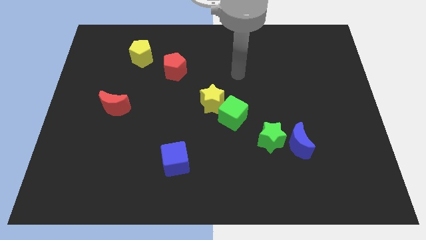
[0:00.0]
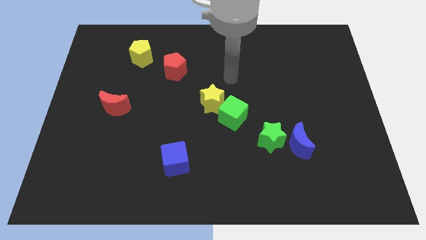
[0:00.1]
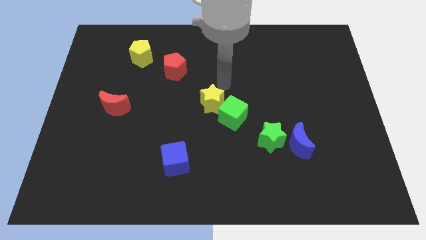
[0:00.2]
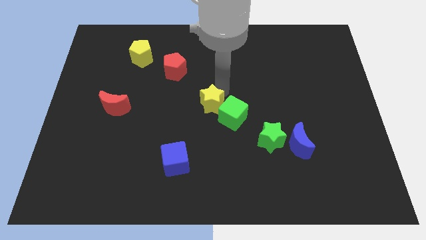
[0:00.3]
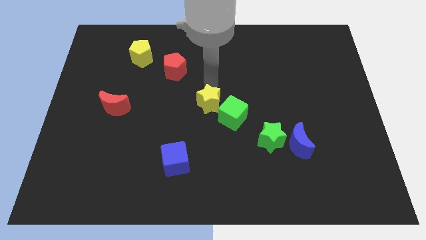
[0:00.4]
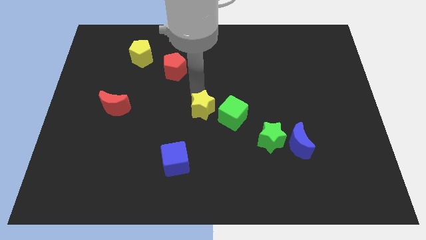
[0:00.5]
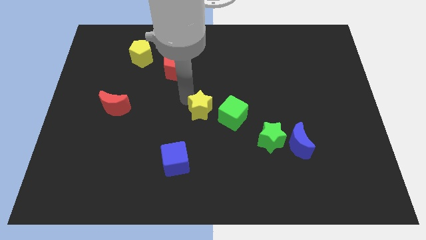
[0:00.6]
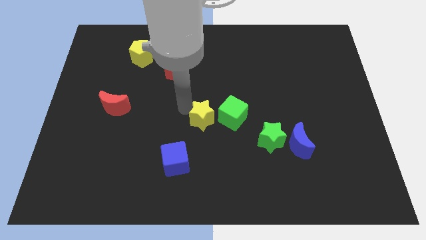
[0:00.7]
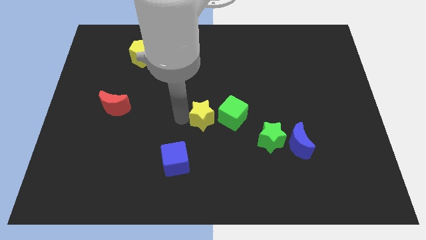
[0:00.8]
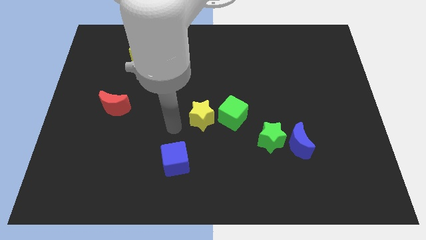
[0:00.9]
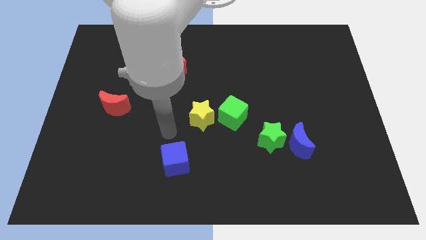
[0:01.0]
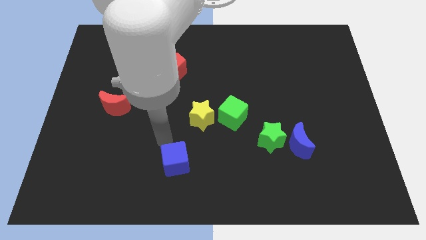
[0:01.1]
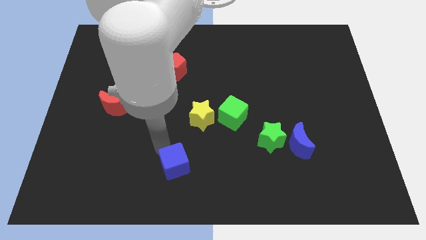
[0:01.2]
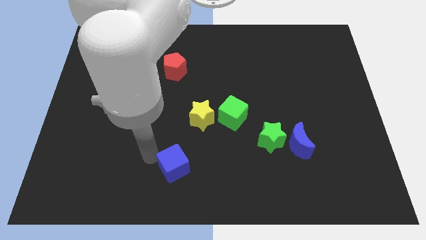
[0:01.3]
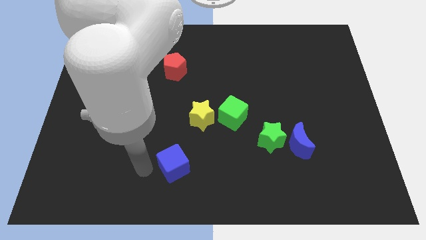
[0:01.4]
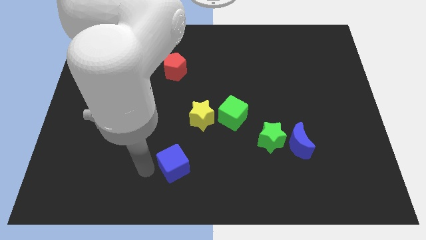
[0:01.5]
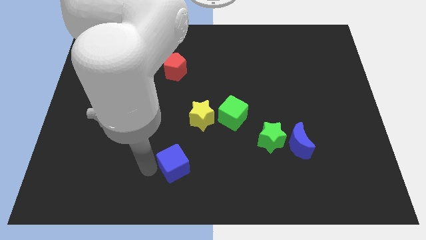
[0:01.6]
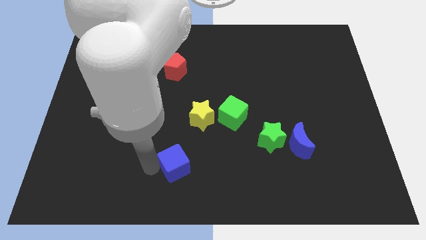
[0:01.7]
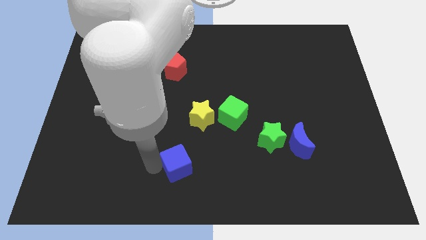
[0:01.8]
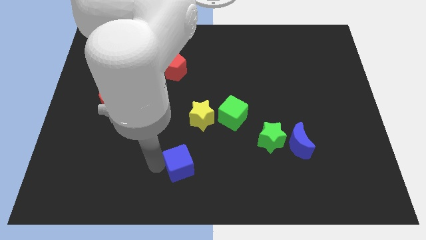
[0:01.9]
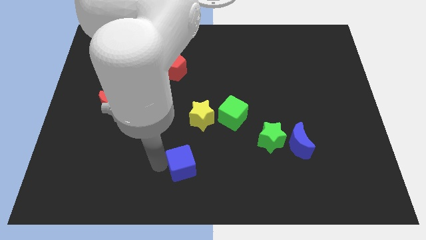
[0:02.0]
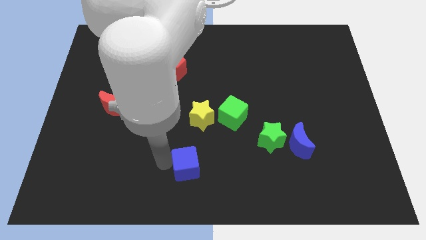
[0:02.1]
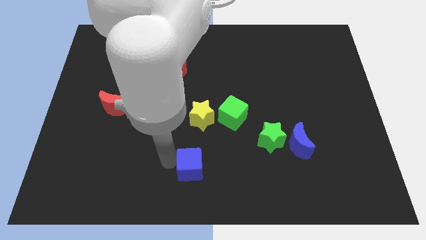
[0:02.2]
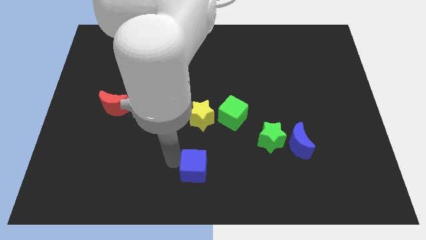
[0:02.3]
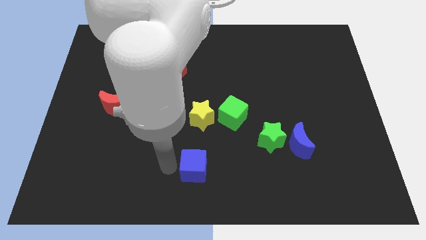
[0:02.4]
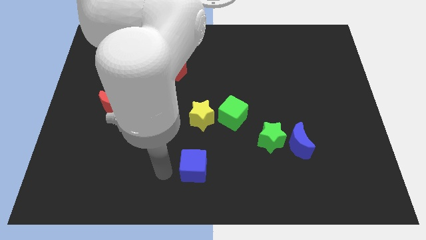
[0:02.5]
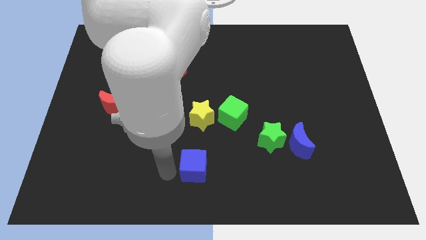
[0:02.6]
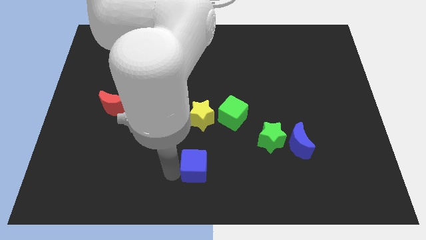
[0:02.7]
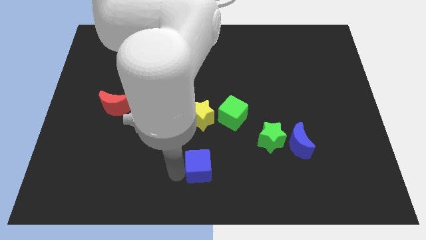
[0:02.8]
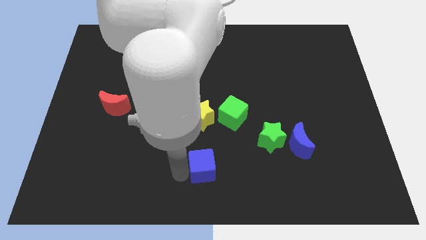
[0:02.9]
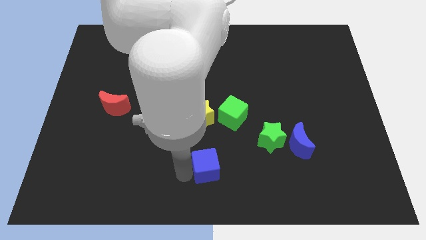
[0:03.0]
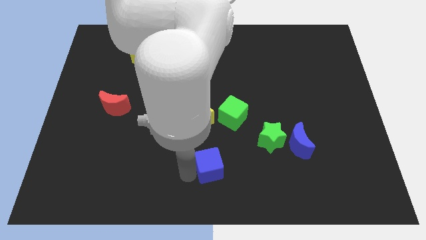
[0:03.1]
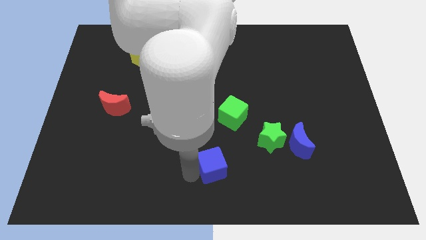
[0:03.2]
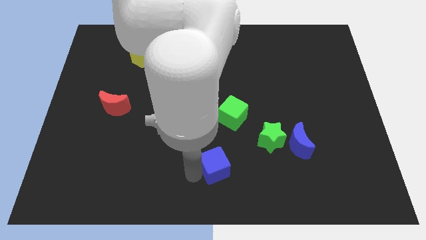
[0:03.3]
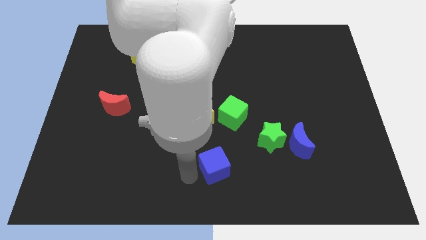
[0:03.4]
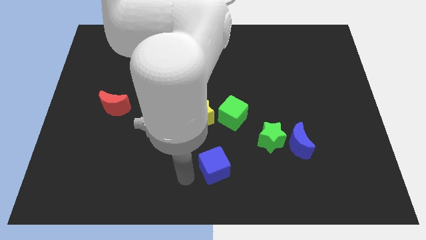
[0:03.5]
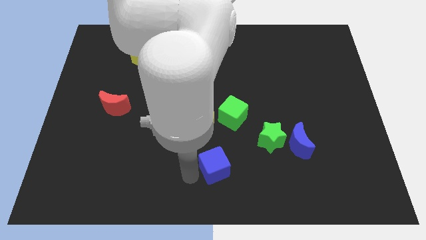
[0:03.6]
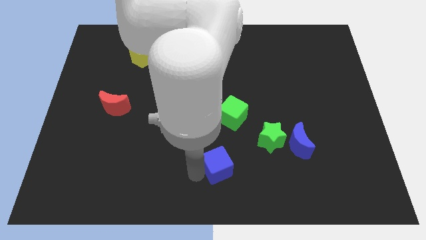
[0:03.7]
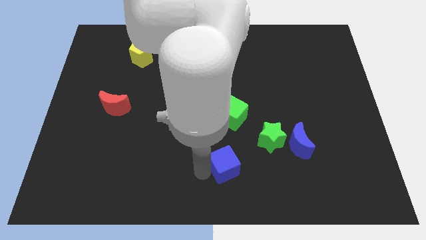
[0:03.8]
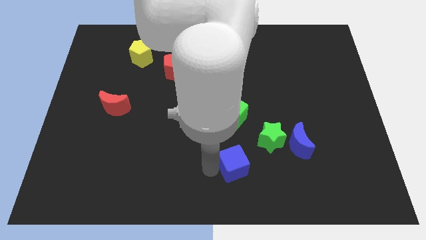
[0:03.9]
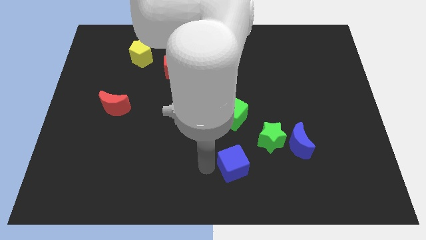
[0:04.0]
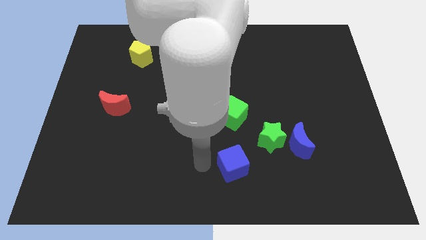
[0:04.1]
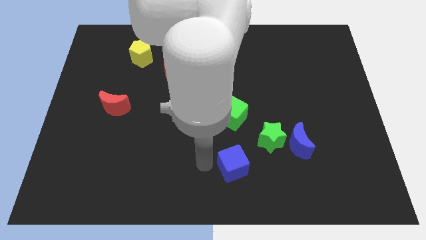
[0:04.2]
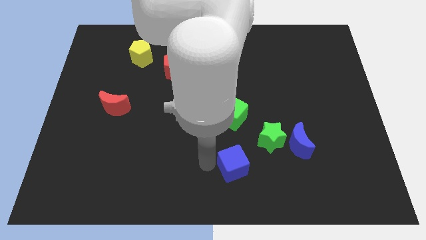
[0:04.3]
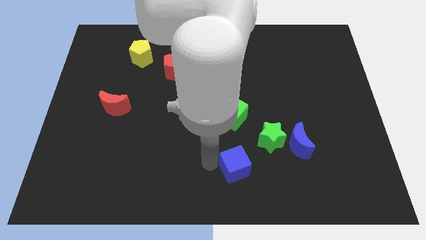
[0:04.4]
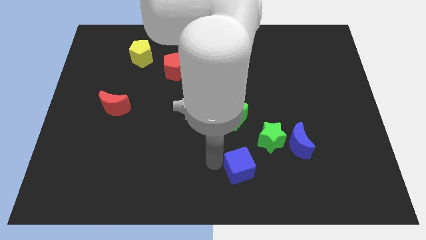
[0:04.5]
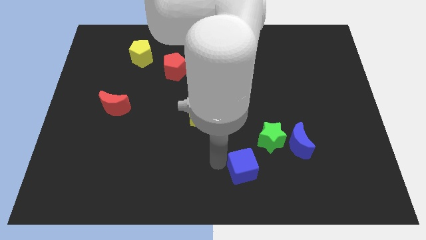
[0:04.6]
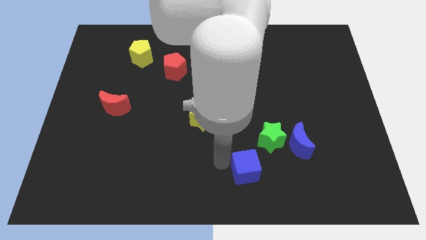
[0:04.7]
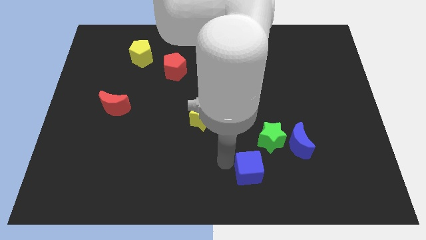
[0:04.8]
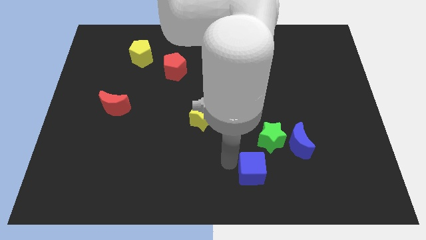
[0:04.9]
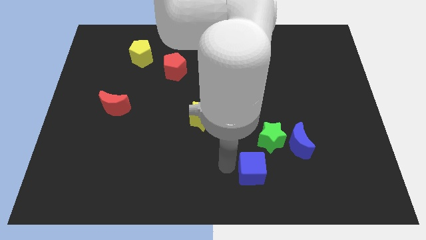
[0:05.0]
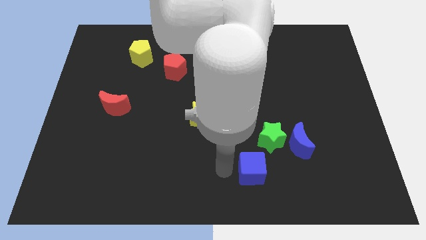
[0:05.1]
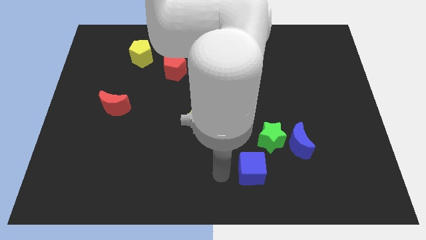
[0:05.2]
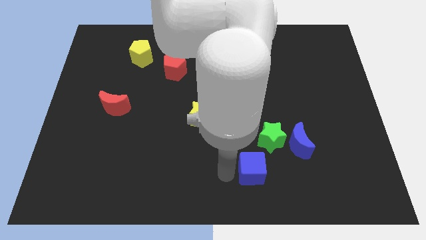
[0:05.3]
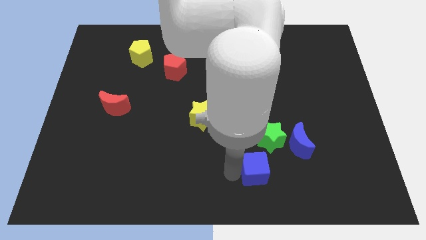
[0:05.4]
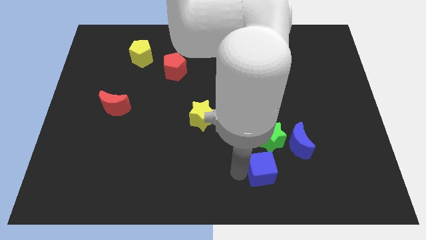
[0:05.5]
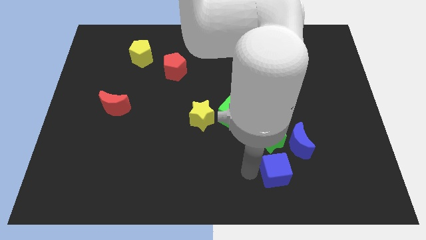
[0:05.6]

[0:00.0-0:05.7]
push the blue cube to the right

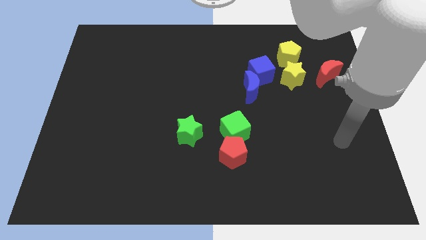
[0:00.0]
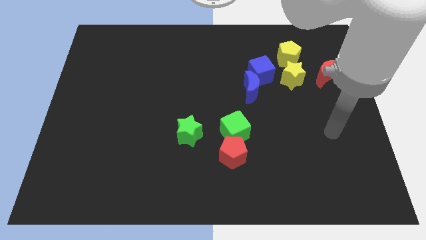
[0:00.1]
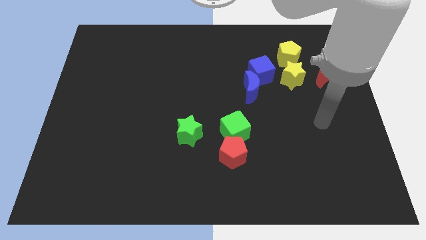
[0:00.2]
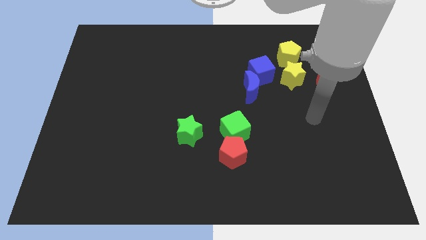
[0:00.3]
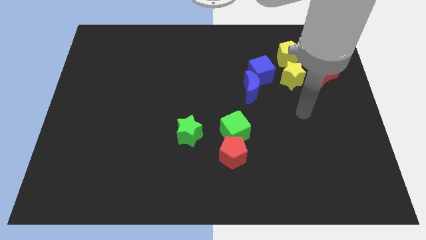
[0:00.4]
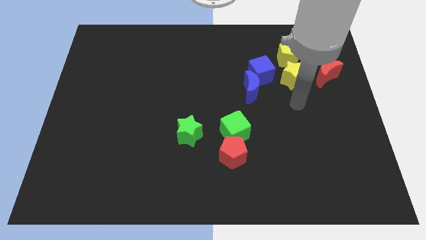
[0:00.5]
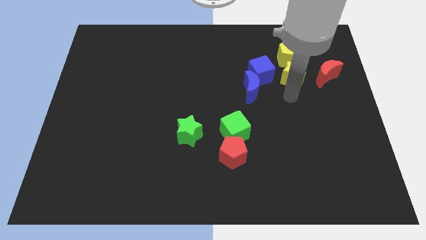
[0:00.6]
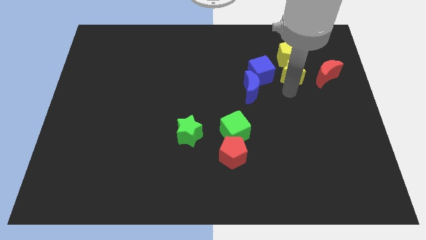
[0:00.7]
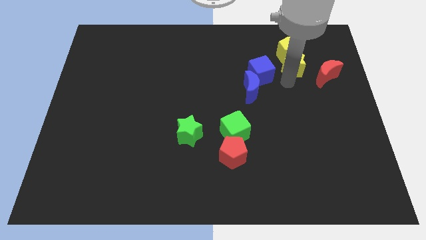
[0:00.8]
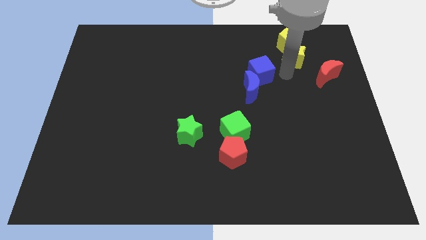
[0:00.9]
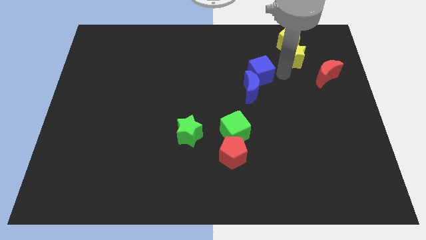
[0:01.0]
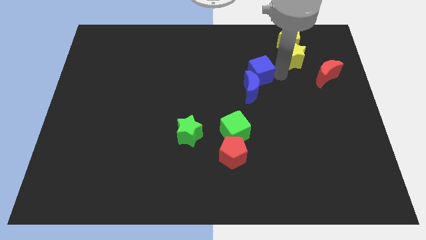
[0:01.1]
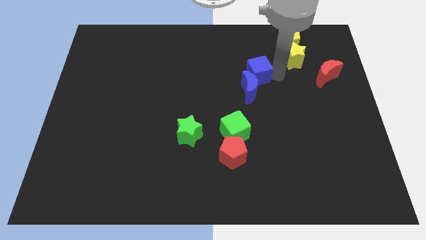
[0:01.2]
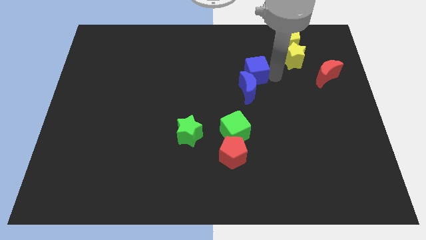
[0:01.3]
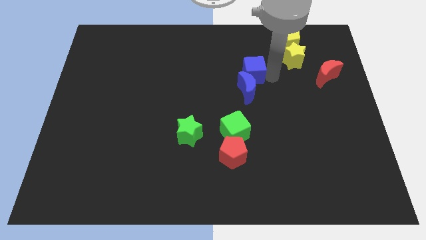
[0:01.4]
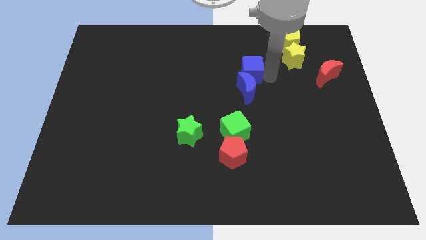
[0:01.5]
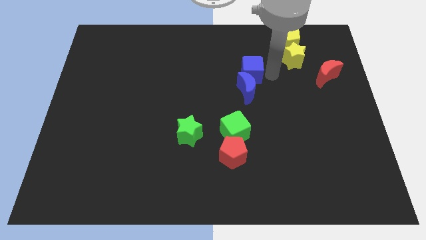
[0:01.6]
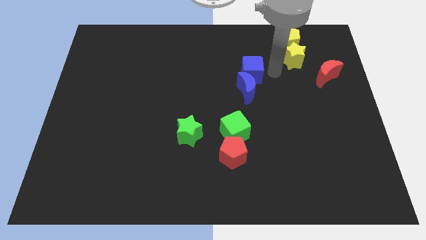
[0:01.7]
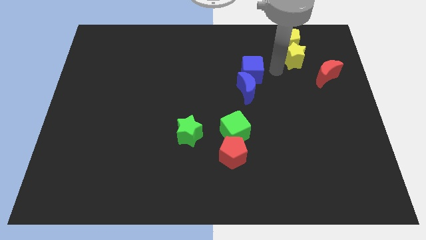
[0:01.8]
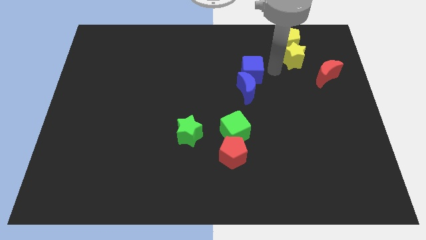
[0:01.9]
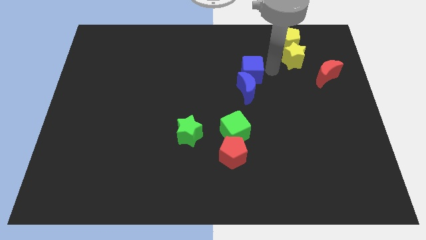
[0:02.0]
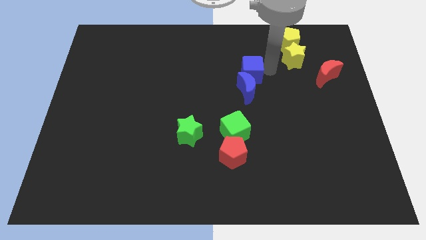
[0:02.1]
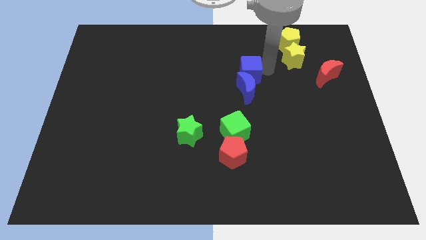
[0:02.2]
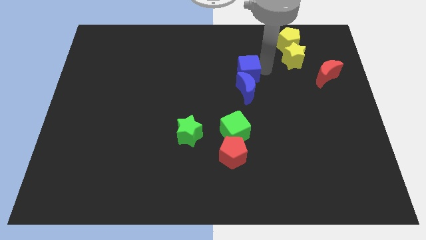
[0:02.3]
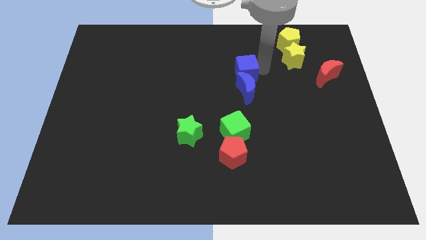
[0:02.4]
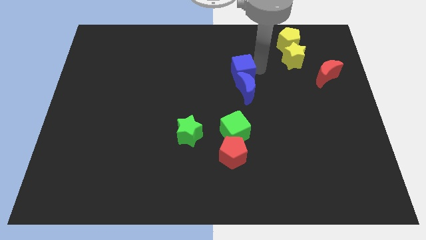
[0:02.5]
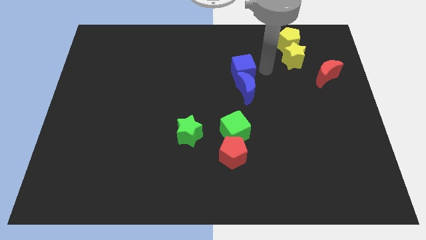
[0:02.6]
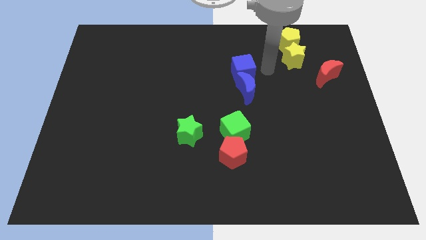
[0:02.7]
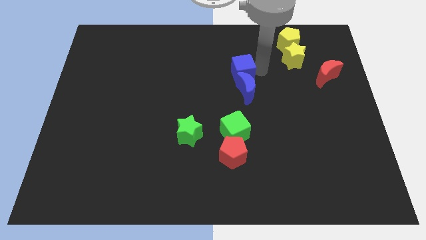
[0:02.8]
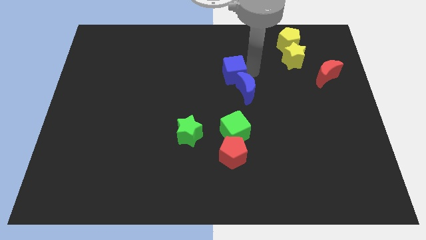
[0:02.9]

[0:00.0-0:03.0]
slide the blue cube somewhat to the left
